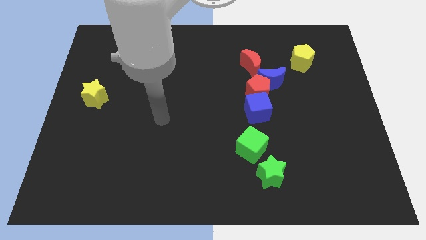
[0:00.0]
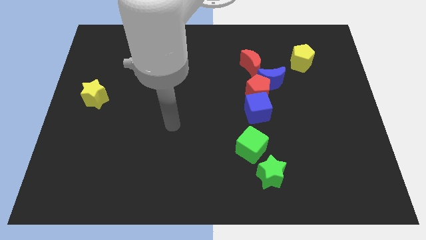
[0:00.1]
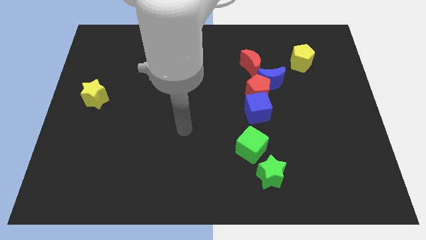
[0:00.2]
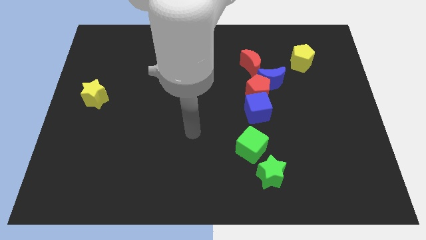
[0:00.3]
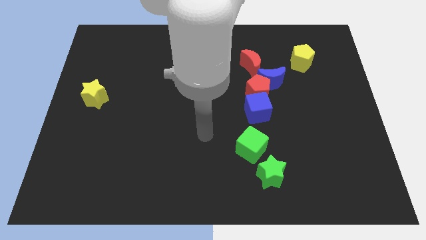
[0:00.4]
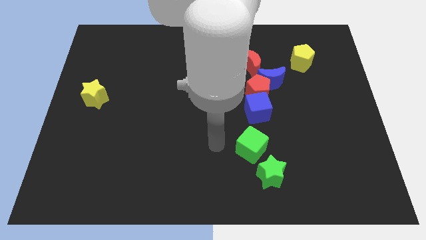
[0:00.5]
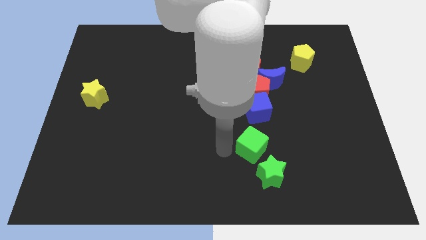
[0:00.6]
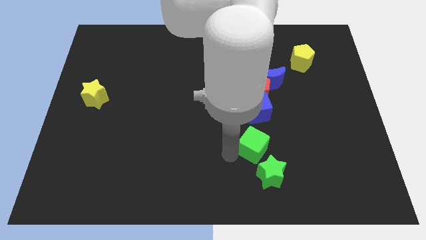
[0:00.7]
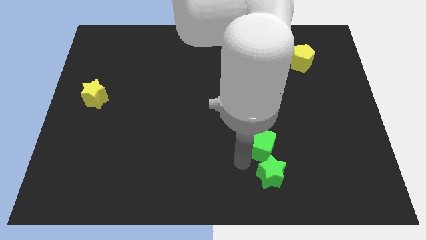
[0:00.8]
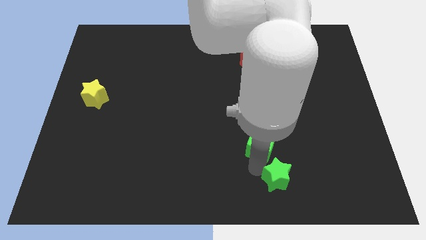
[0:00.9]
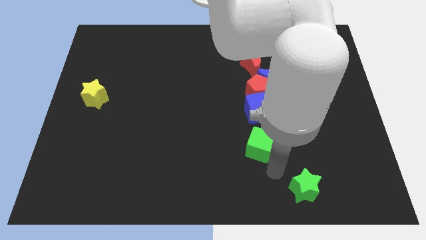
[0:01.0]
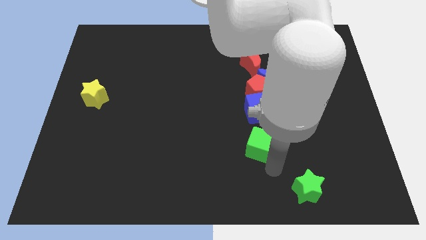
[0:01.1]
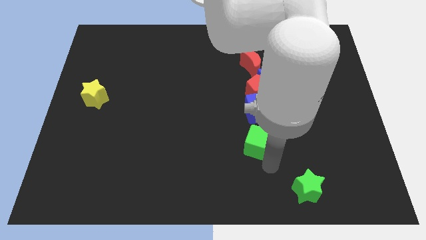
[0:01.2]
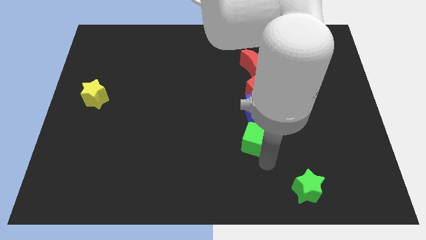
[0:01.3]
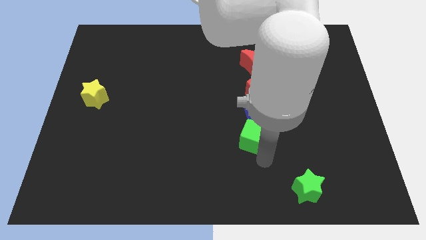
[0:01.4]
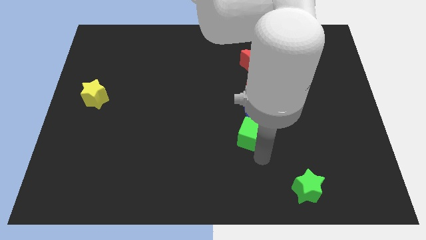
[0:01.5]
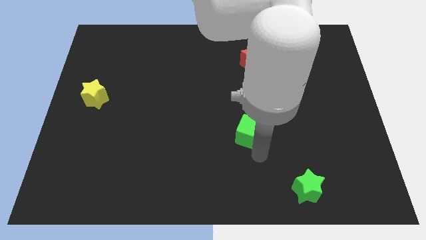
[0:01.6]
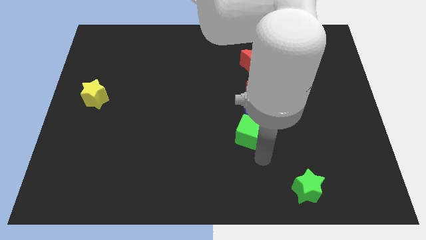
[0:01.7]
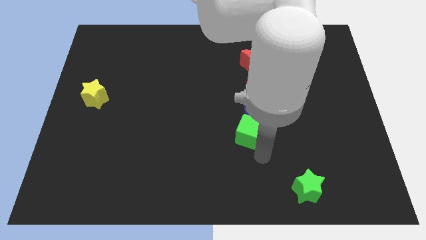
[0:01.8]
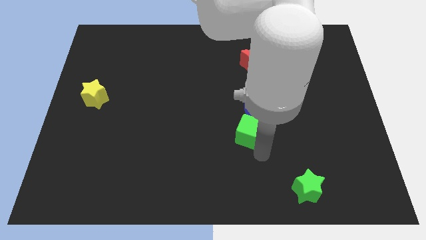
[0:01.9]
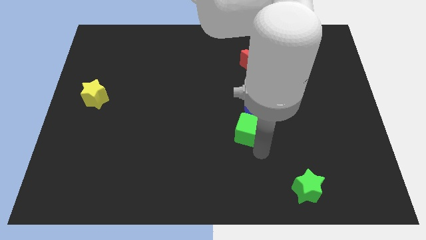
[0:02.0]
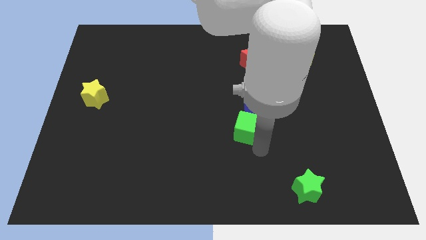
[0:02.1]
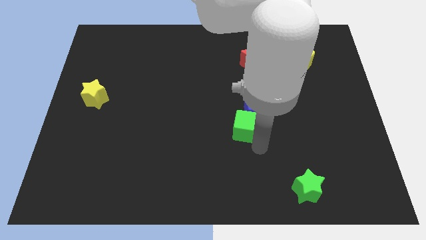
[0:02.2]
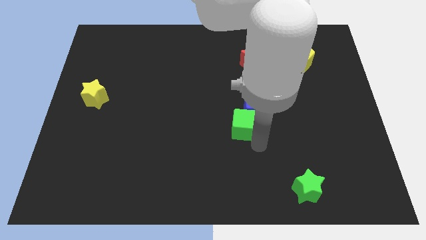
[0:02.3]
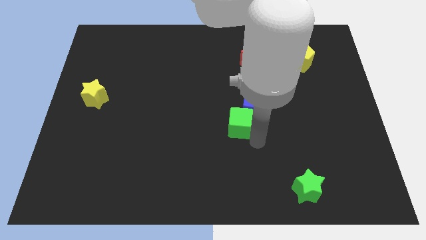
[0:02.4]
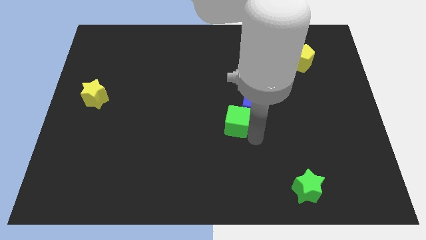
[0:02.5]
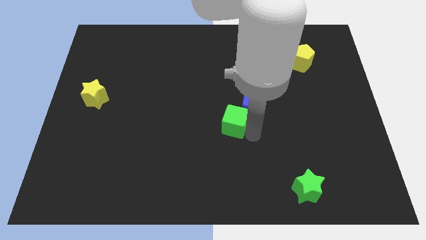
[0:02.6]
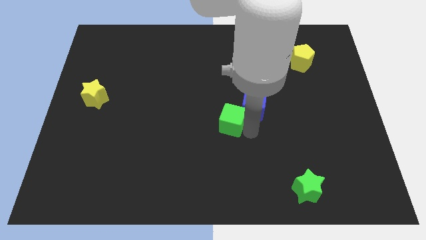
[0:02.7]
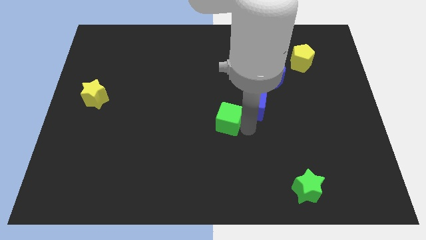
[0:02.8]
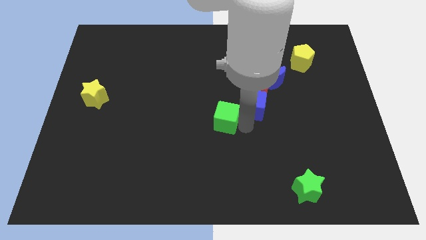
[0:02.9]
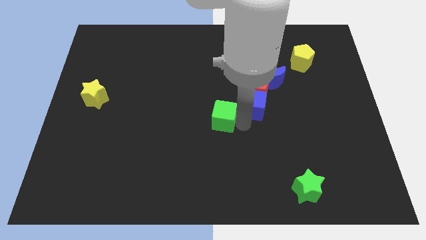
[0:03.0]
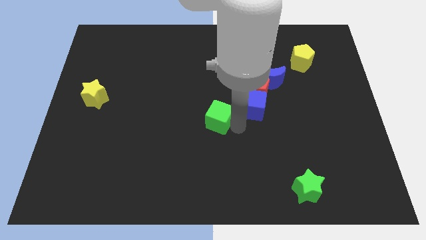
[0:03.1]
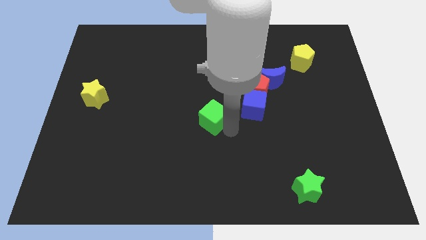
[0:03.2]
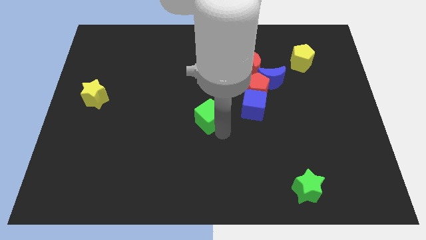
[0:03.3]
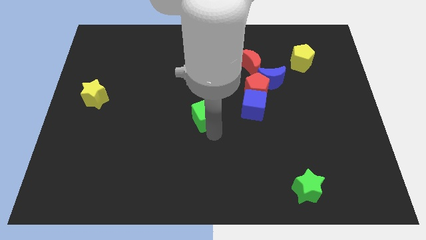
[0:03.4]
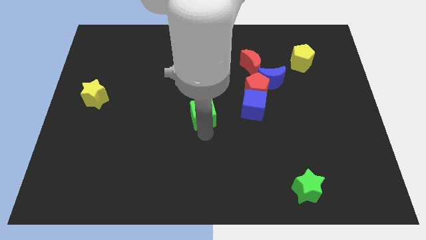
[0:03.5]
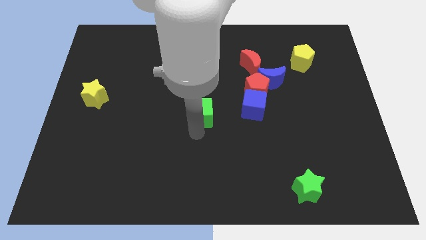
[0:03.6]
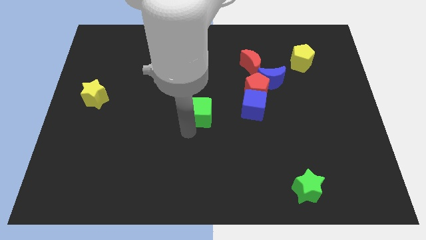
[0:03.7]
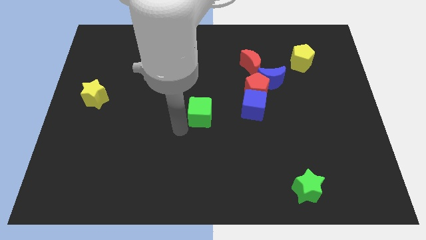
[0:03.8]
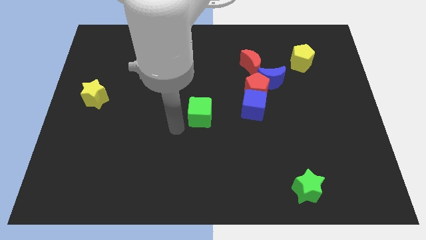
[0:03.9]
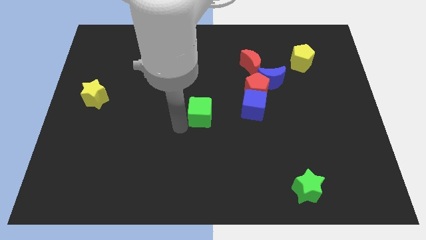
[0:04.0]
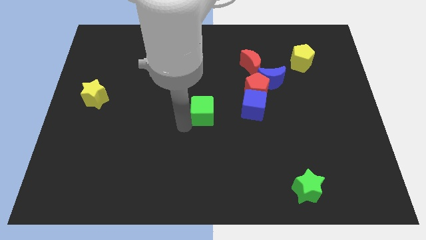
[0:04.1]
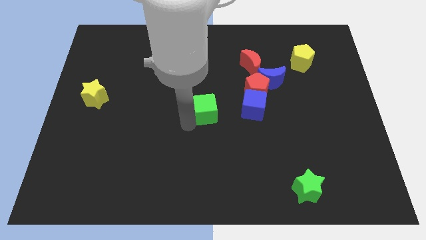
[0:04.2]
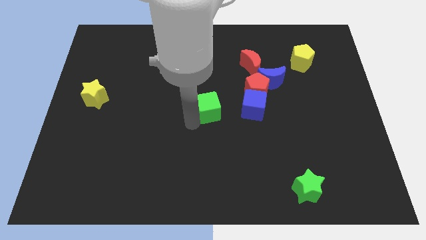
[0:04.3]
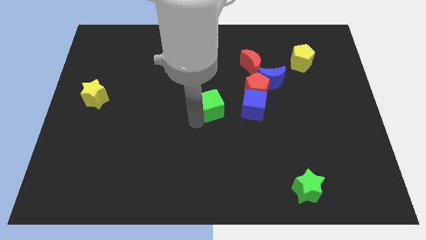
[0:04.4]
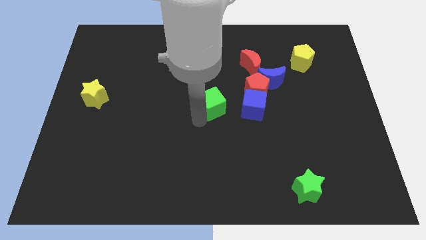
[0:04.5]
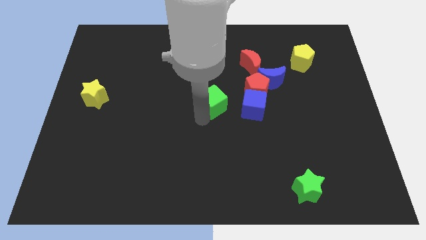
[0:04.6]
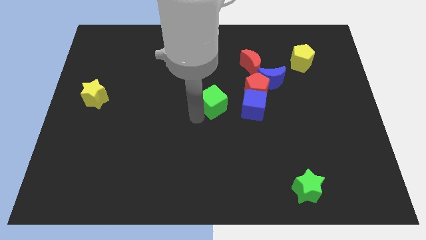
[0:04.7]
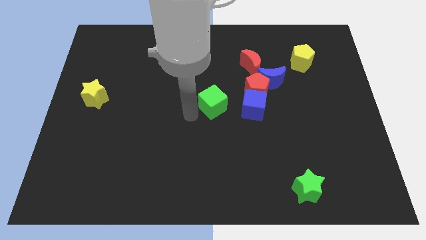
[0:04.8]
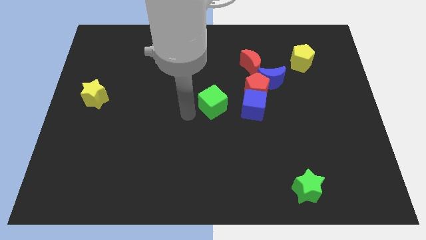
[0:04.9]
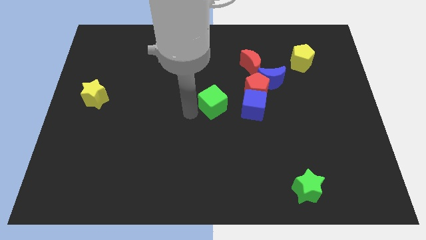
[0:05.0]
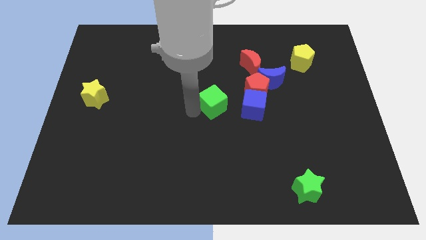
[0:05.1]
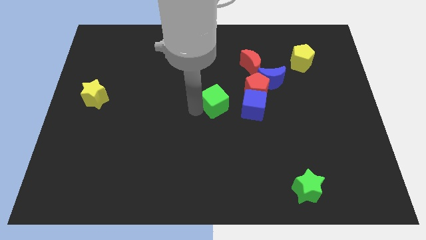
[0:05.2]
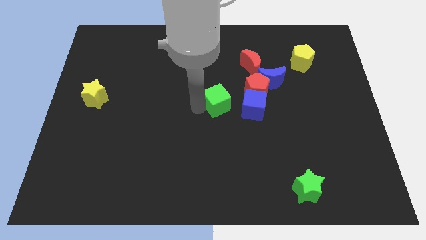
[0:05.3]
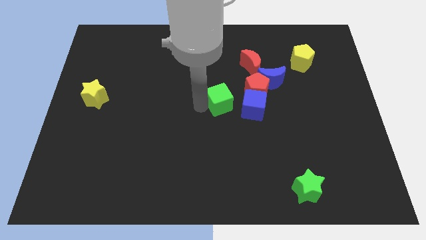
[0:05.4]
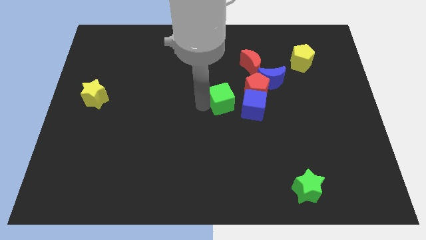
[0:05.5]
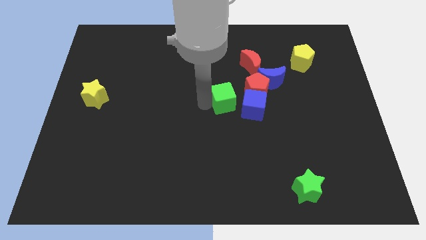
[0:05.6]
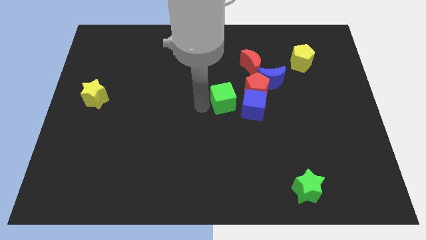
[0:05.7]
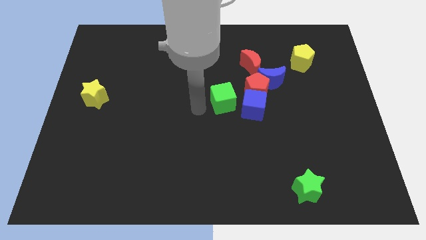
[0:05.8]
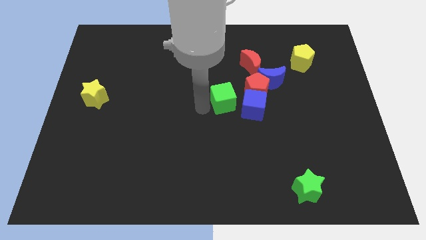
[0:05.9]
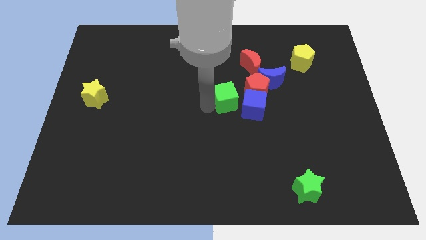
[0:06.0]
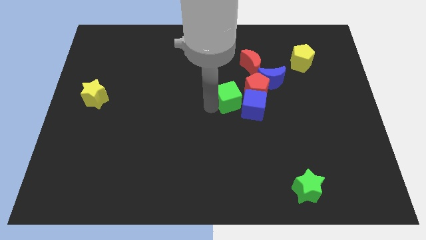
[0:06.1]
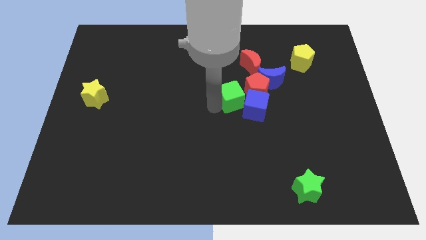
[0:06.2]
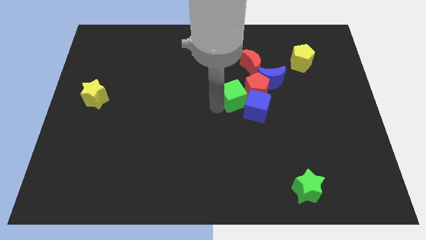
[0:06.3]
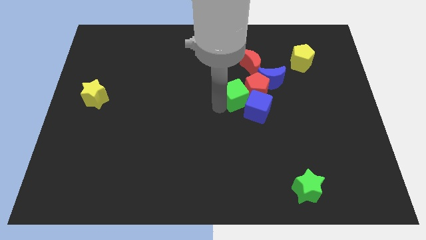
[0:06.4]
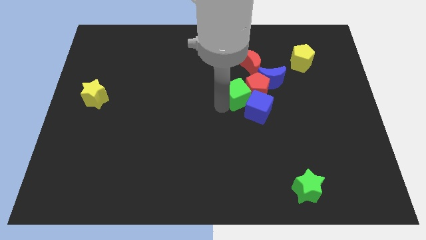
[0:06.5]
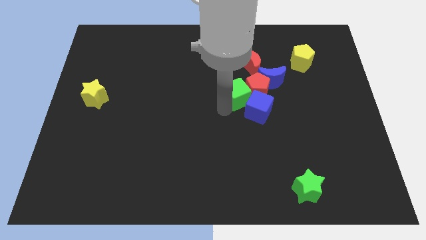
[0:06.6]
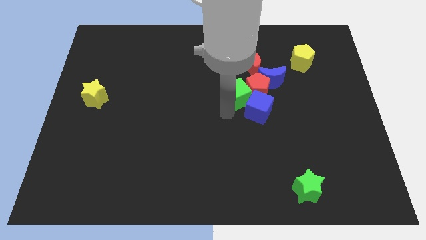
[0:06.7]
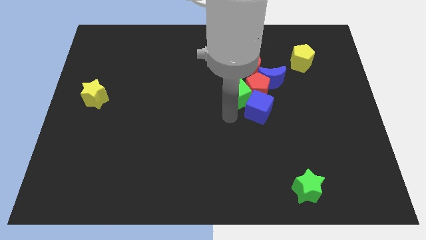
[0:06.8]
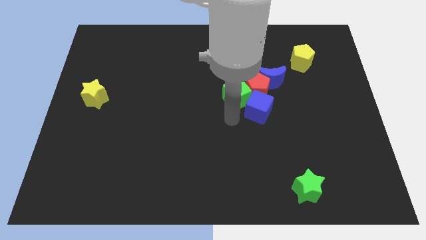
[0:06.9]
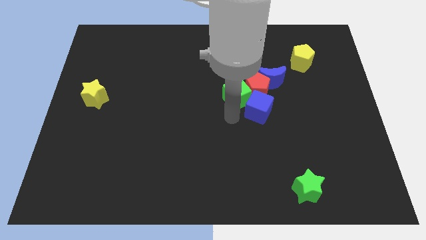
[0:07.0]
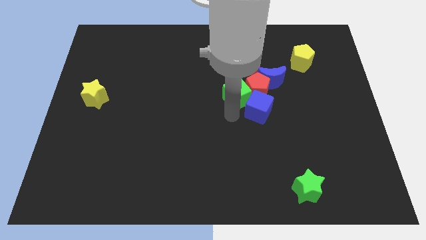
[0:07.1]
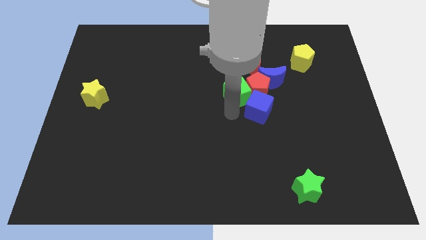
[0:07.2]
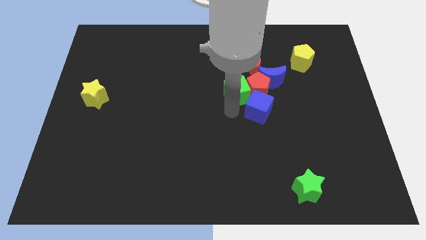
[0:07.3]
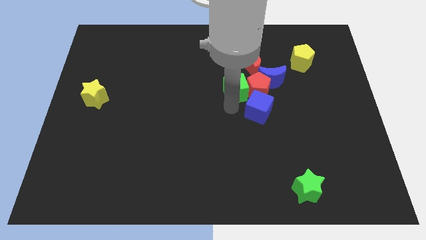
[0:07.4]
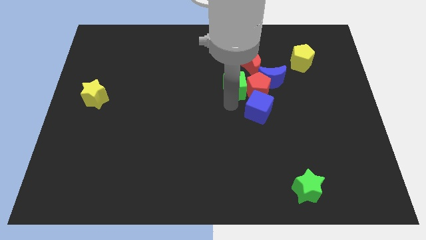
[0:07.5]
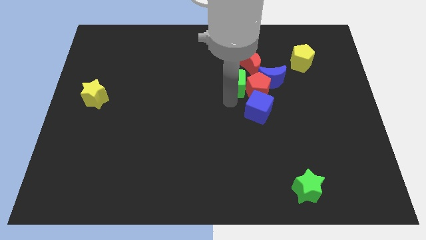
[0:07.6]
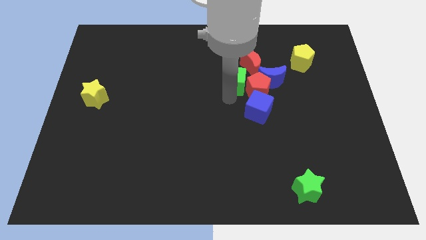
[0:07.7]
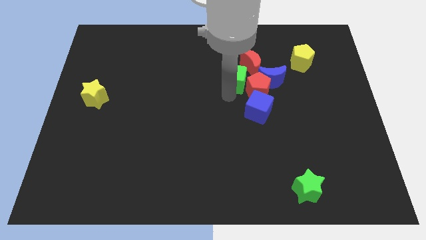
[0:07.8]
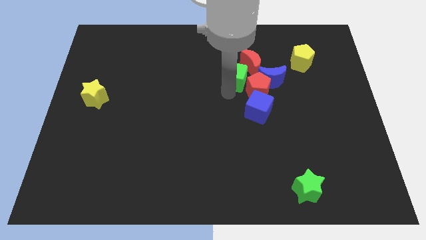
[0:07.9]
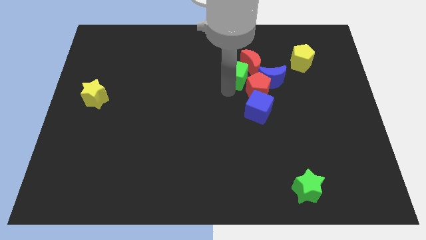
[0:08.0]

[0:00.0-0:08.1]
slide the green cube to the red moon
